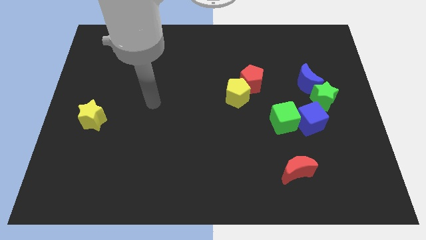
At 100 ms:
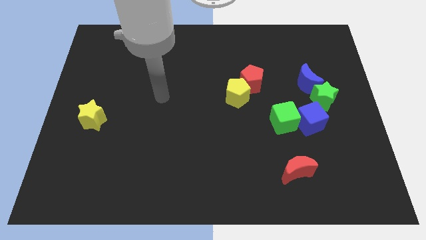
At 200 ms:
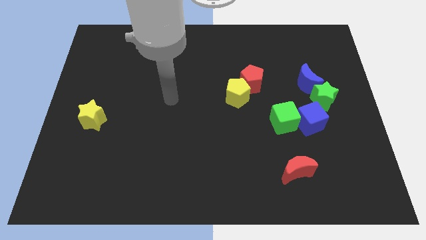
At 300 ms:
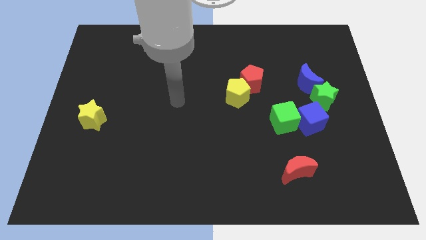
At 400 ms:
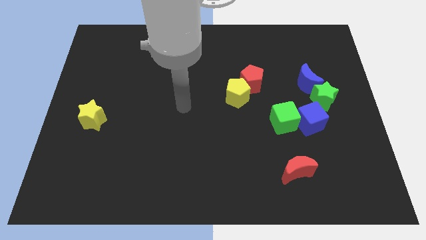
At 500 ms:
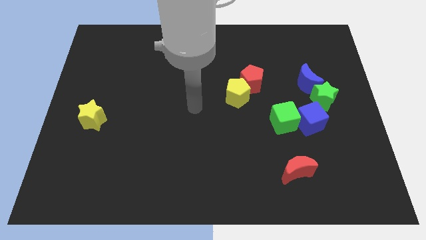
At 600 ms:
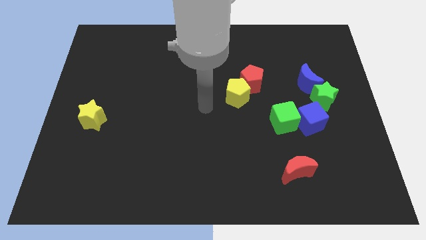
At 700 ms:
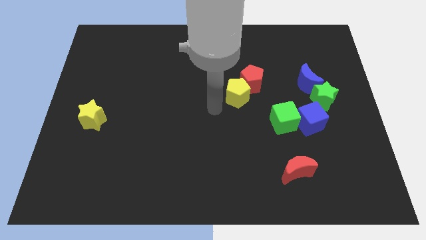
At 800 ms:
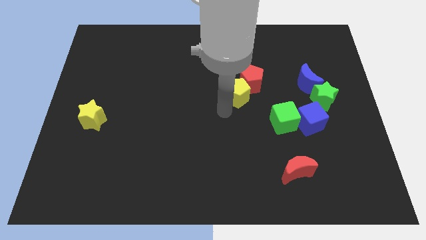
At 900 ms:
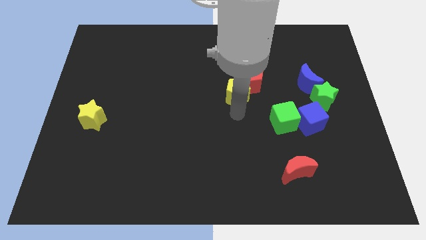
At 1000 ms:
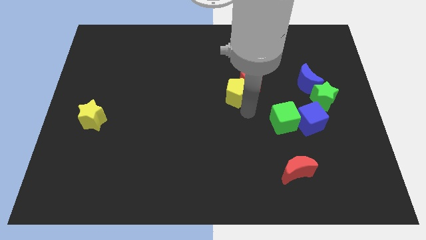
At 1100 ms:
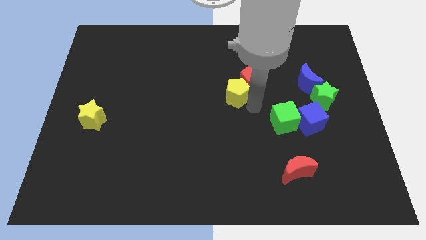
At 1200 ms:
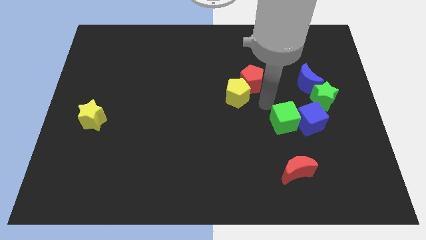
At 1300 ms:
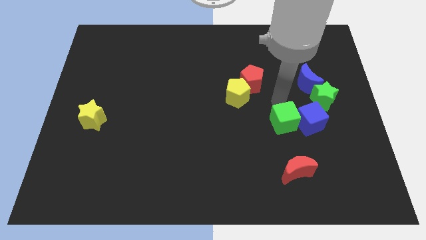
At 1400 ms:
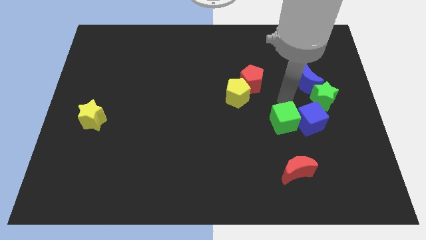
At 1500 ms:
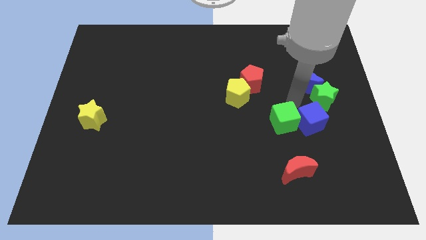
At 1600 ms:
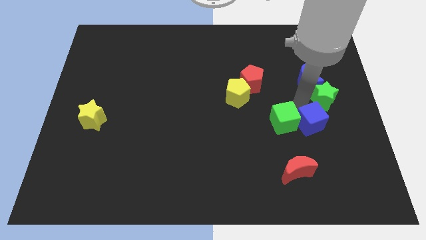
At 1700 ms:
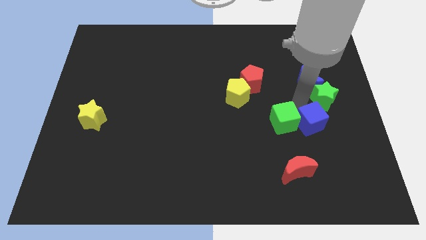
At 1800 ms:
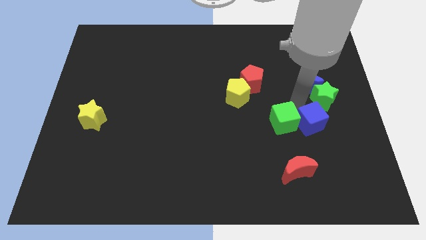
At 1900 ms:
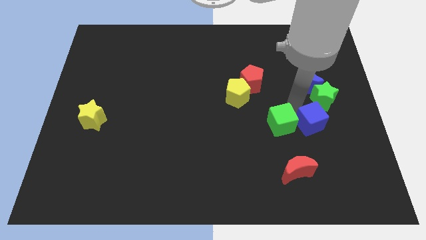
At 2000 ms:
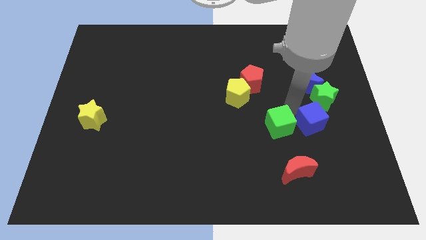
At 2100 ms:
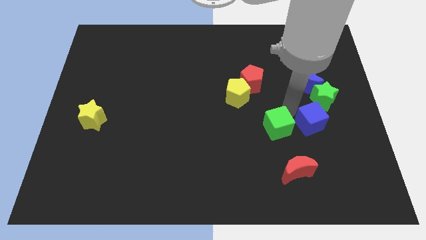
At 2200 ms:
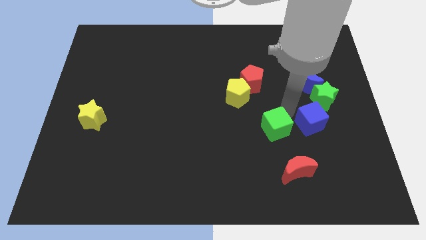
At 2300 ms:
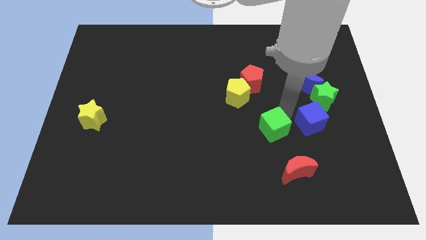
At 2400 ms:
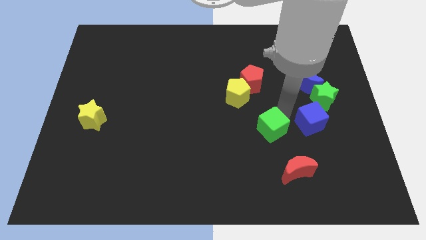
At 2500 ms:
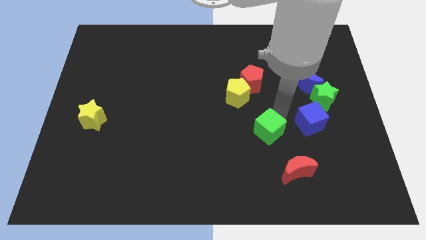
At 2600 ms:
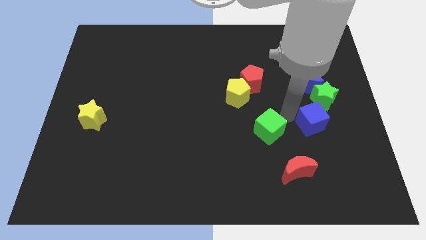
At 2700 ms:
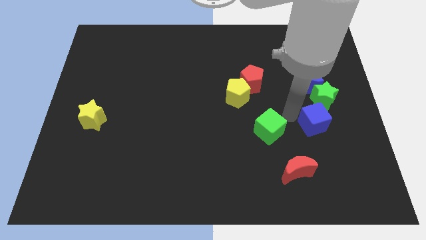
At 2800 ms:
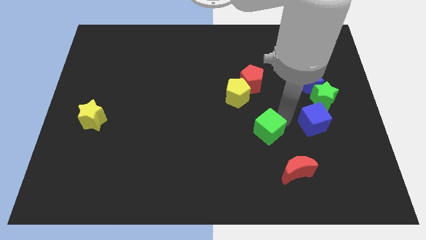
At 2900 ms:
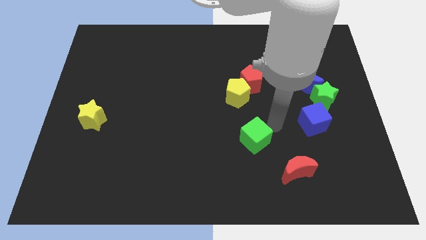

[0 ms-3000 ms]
move the green cube down and to the left a bit

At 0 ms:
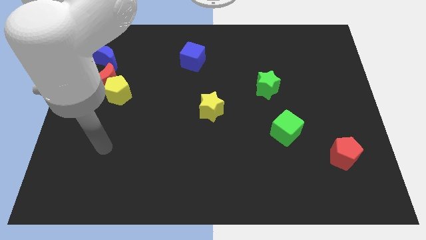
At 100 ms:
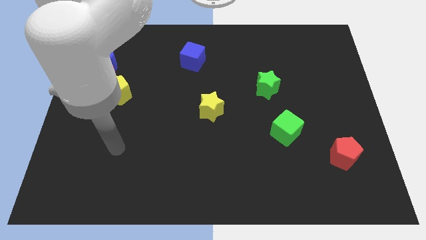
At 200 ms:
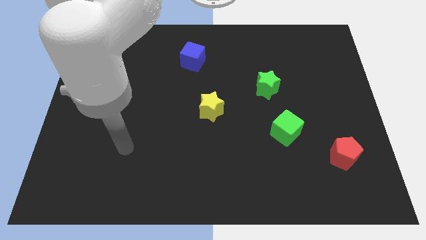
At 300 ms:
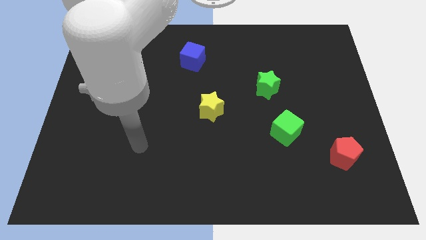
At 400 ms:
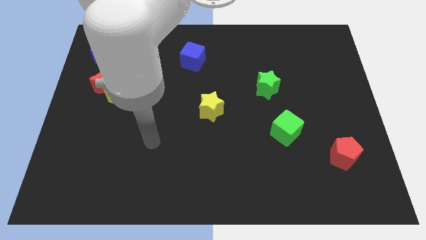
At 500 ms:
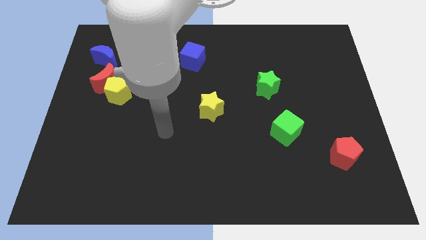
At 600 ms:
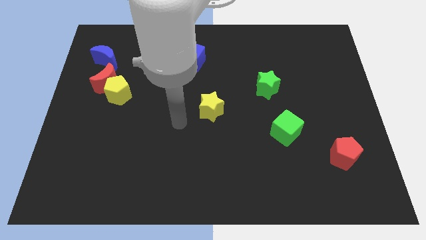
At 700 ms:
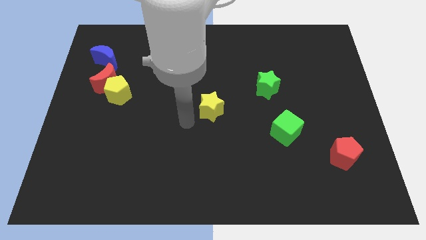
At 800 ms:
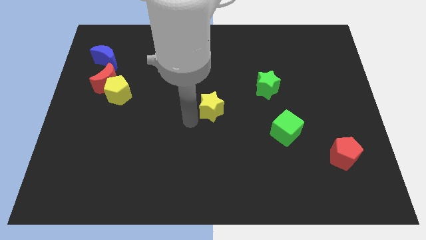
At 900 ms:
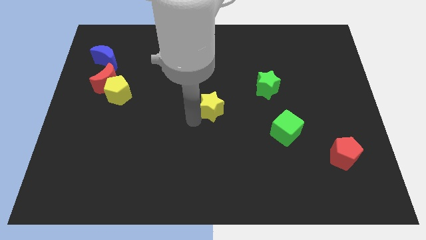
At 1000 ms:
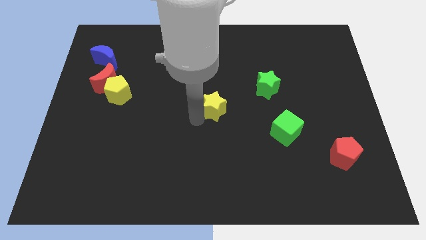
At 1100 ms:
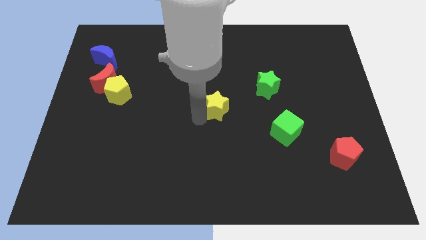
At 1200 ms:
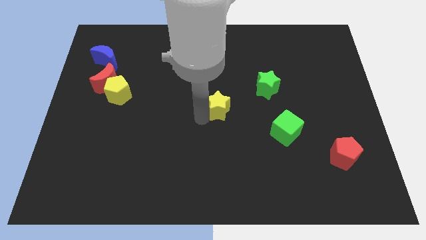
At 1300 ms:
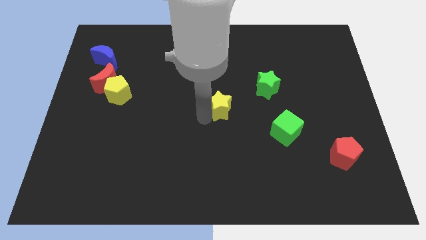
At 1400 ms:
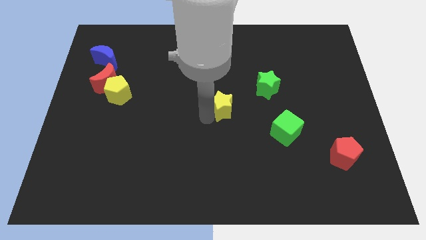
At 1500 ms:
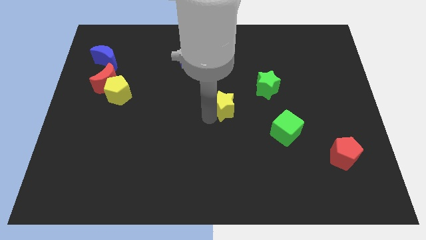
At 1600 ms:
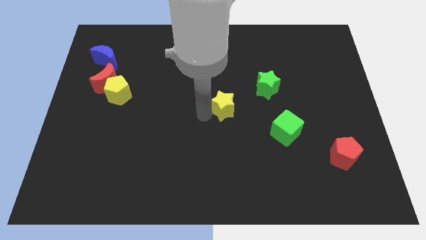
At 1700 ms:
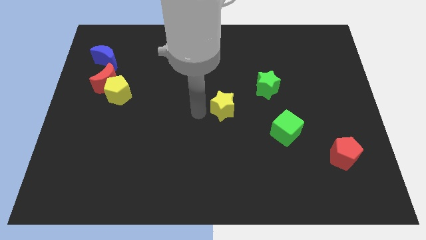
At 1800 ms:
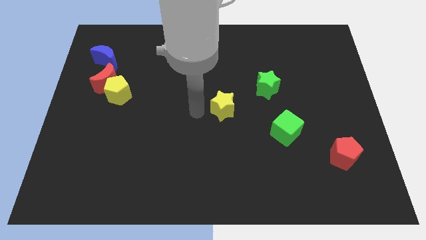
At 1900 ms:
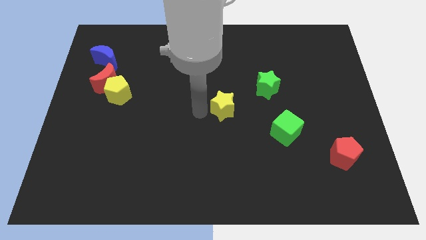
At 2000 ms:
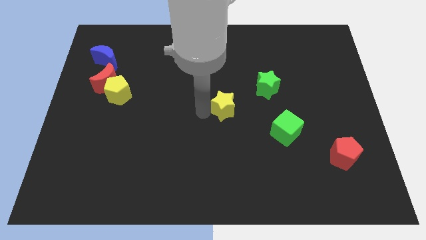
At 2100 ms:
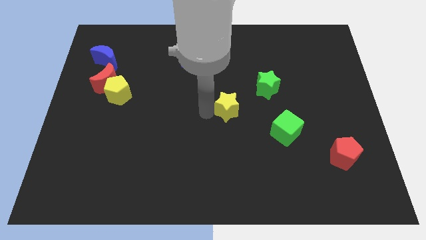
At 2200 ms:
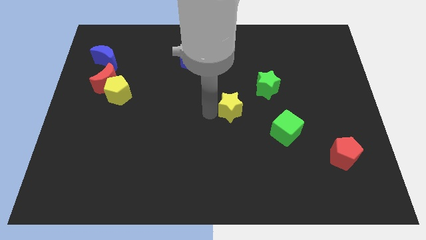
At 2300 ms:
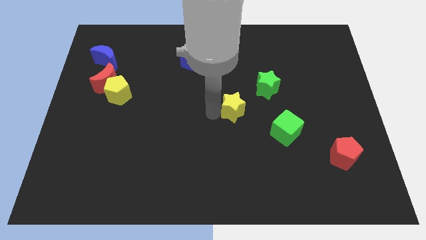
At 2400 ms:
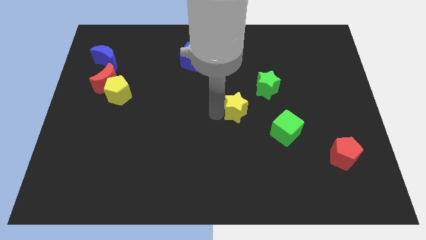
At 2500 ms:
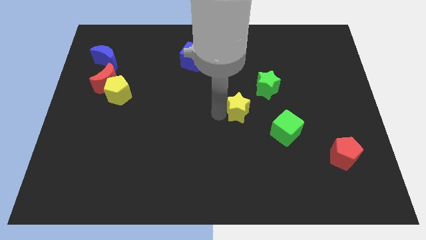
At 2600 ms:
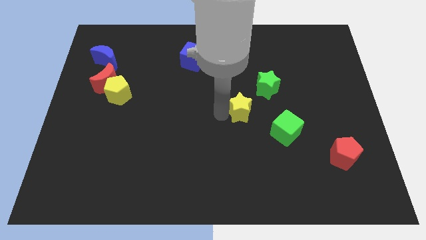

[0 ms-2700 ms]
slide the yellow star a little right

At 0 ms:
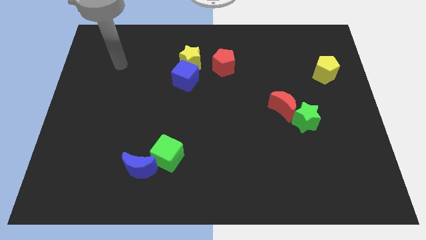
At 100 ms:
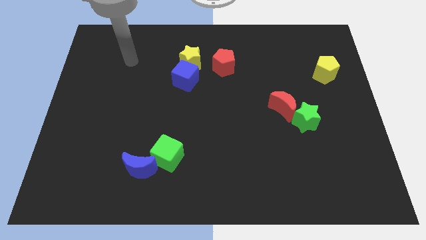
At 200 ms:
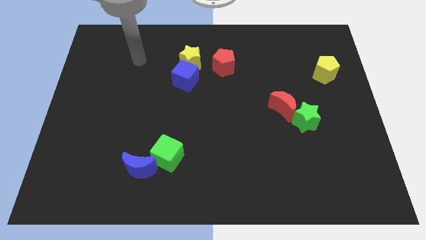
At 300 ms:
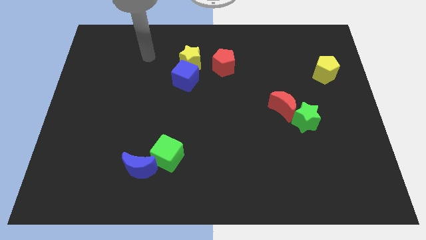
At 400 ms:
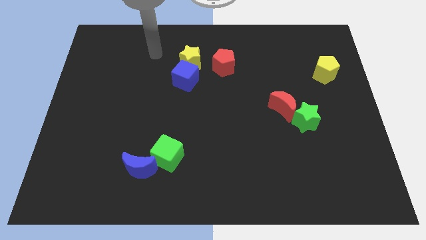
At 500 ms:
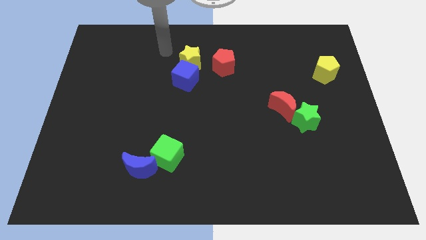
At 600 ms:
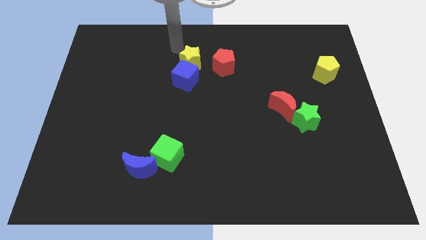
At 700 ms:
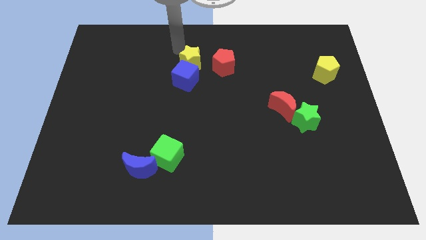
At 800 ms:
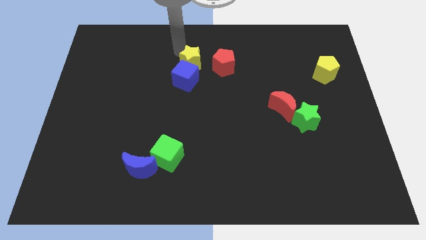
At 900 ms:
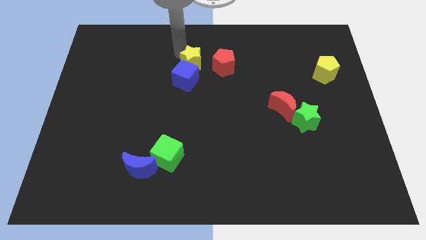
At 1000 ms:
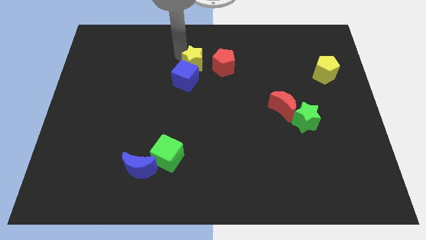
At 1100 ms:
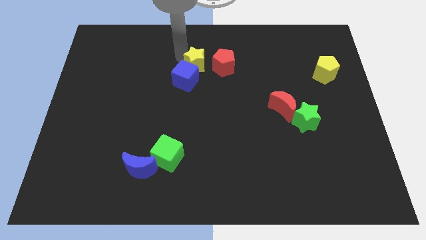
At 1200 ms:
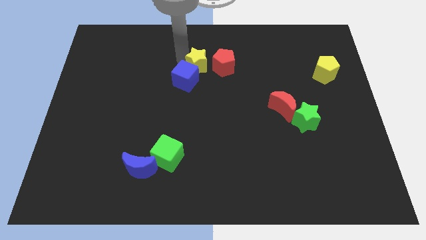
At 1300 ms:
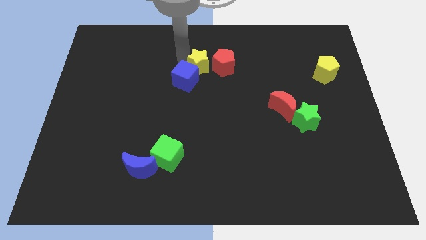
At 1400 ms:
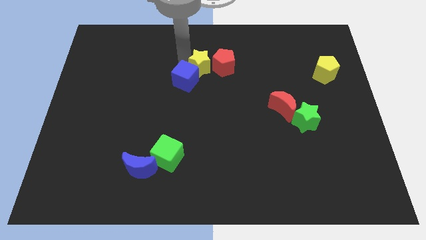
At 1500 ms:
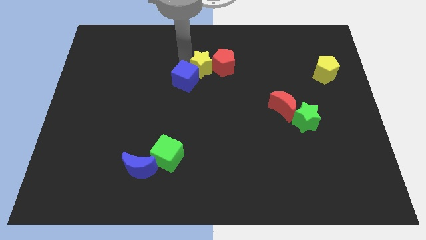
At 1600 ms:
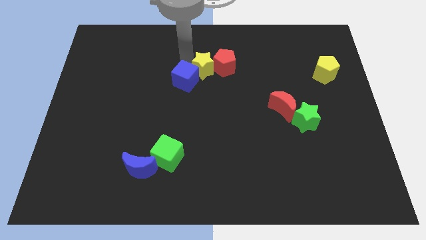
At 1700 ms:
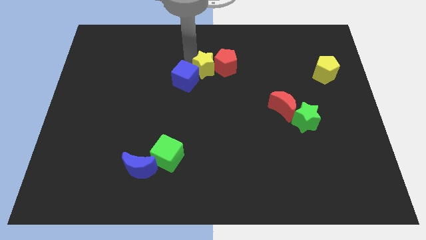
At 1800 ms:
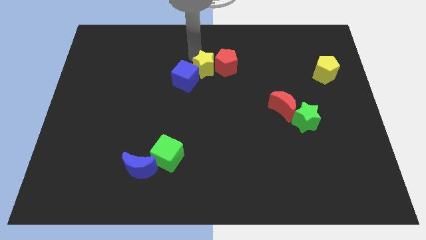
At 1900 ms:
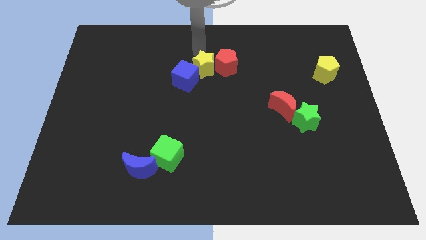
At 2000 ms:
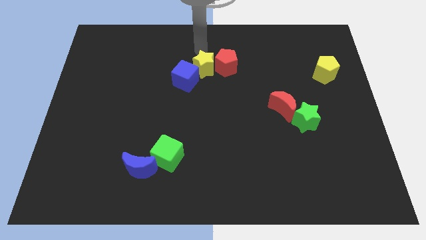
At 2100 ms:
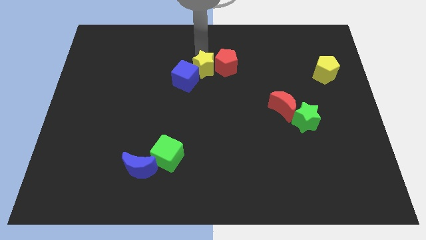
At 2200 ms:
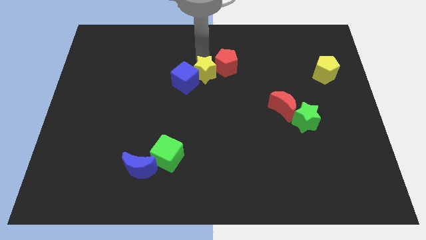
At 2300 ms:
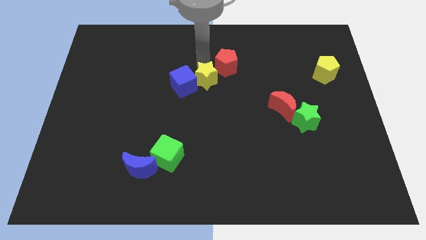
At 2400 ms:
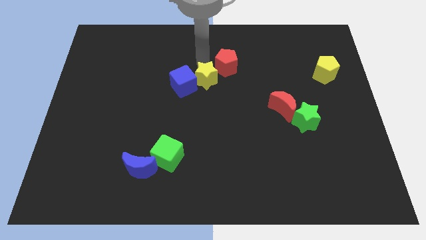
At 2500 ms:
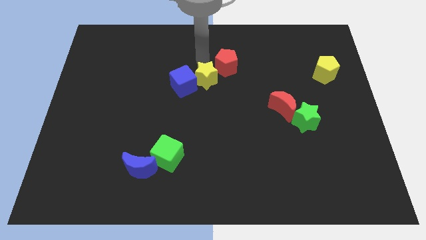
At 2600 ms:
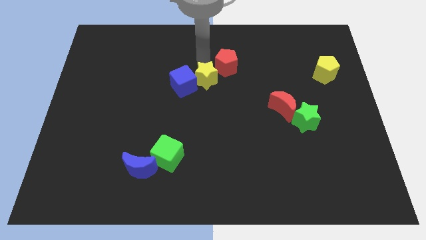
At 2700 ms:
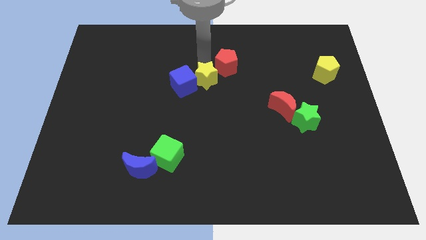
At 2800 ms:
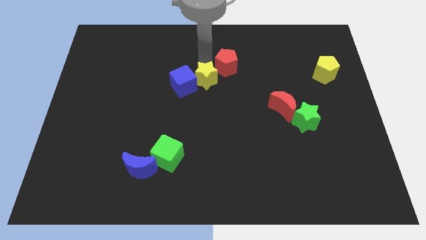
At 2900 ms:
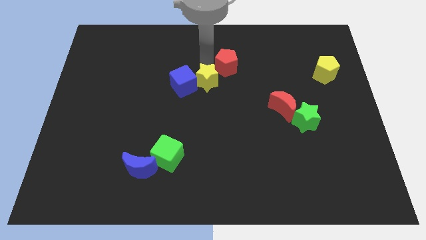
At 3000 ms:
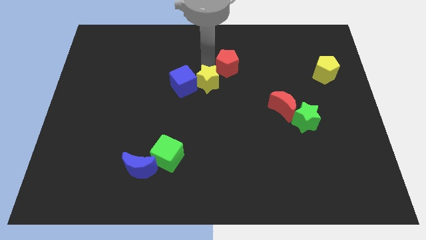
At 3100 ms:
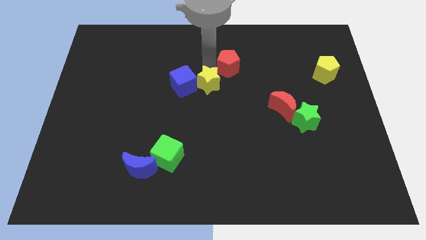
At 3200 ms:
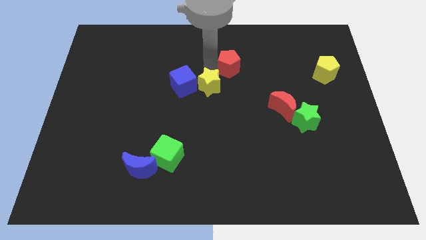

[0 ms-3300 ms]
move the yellow star downwards a bit
